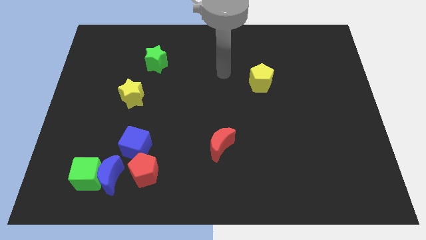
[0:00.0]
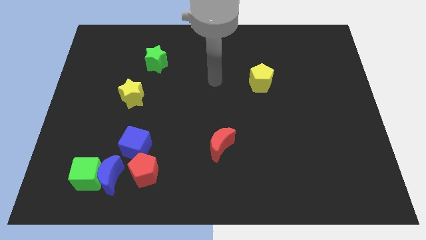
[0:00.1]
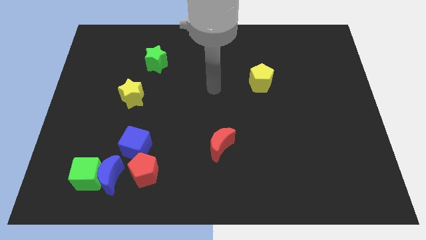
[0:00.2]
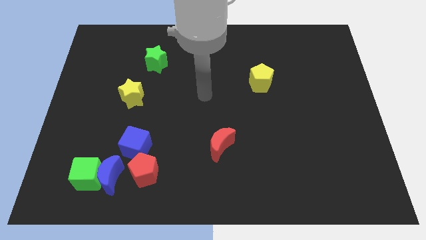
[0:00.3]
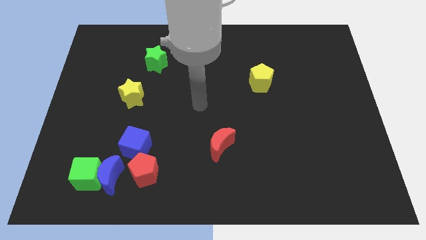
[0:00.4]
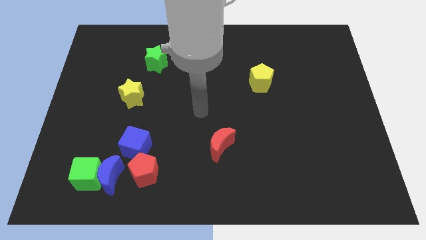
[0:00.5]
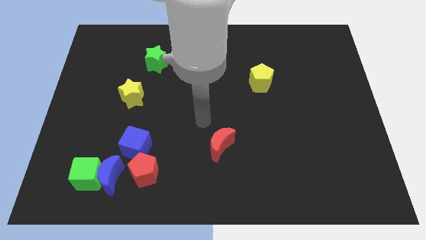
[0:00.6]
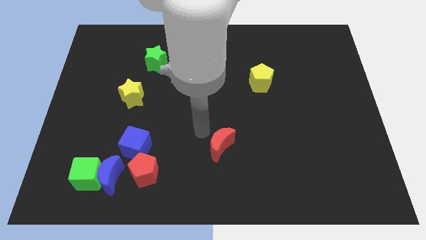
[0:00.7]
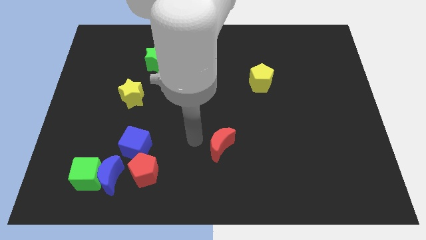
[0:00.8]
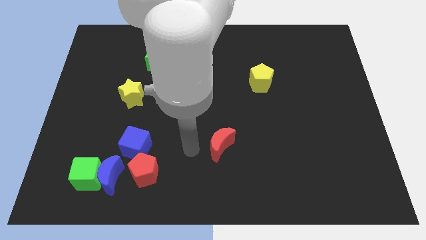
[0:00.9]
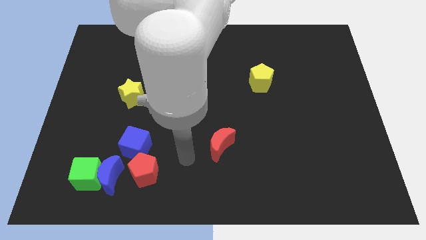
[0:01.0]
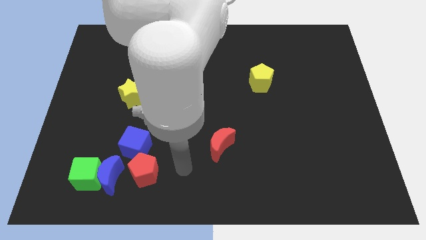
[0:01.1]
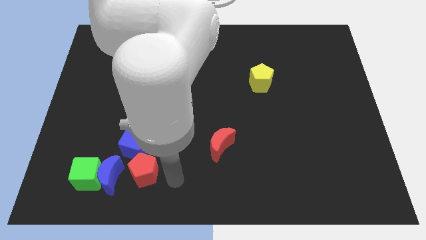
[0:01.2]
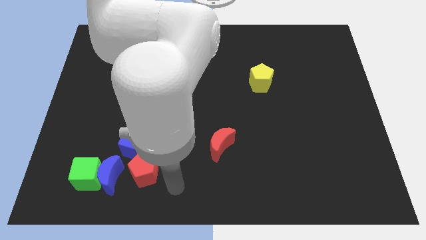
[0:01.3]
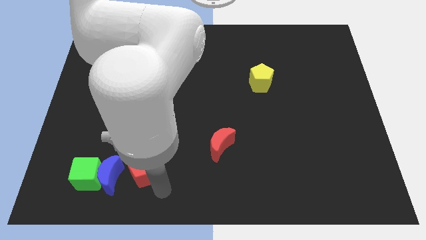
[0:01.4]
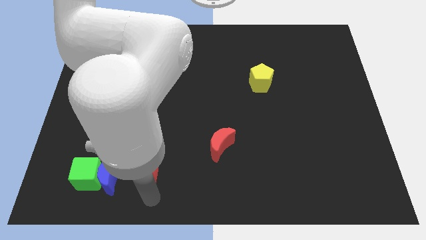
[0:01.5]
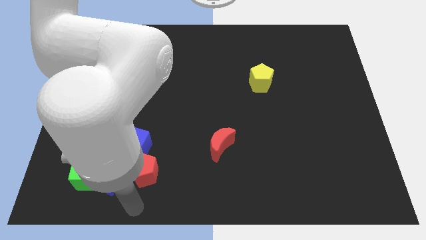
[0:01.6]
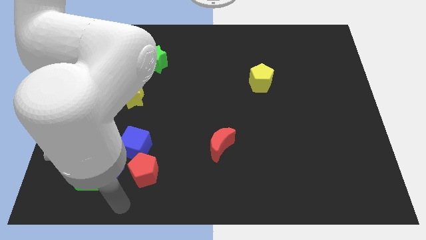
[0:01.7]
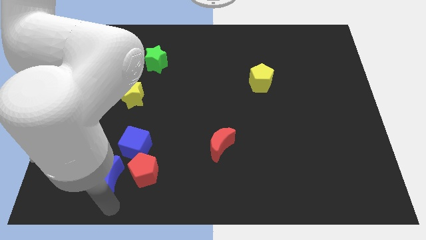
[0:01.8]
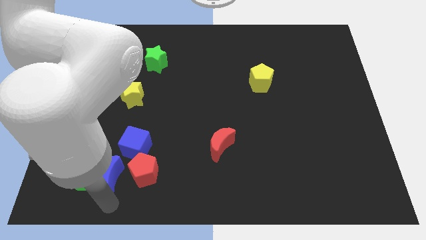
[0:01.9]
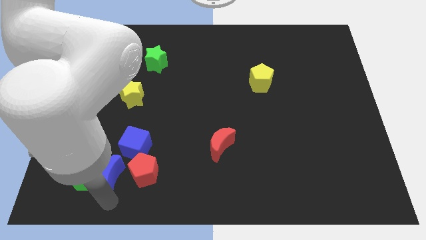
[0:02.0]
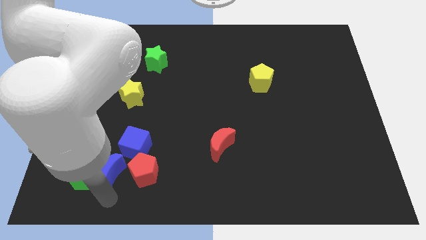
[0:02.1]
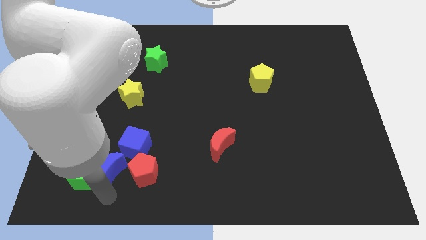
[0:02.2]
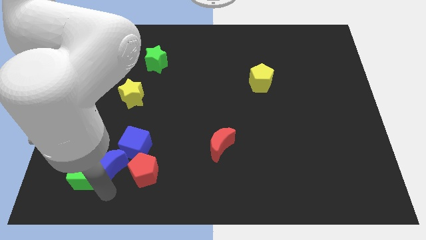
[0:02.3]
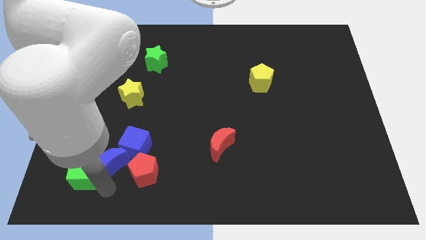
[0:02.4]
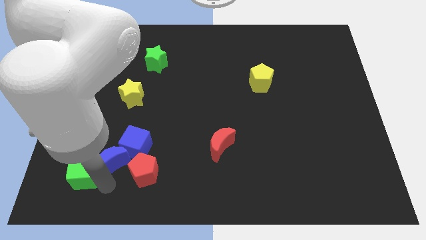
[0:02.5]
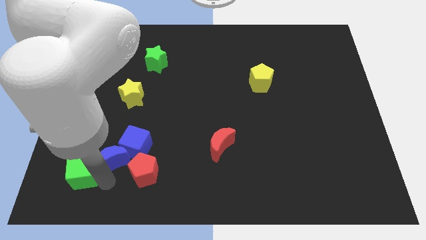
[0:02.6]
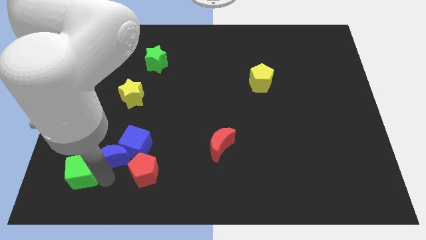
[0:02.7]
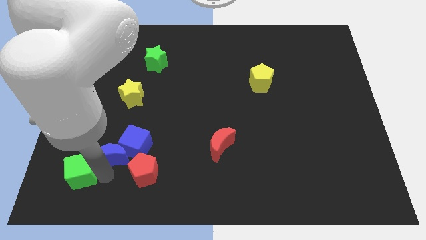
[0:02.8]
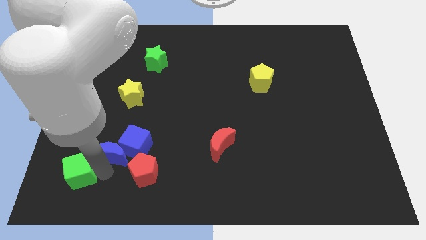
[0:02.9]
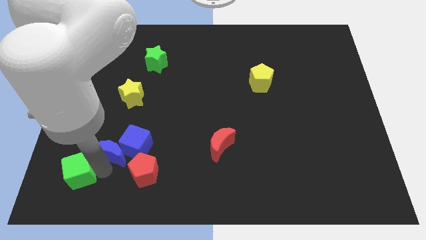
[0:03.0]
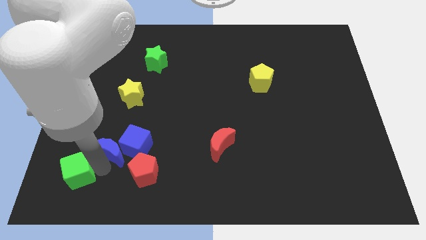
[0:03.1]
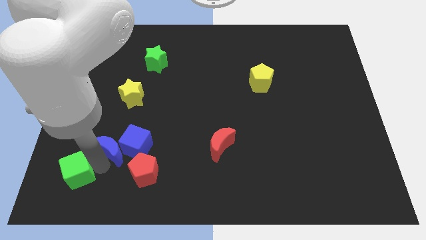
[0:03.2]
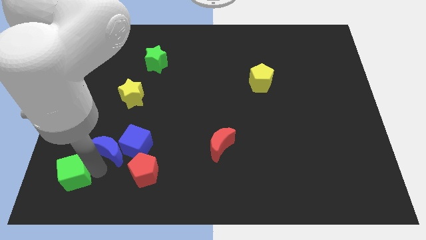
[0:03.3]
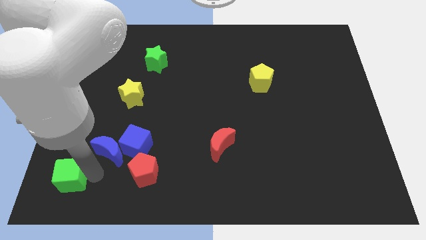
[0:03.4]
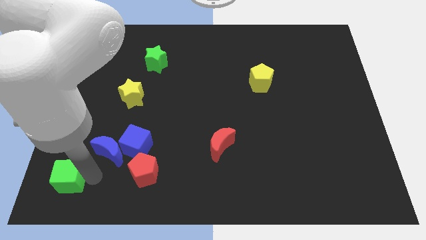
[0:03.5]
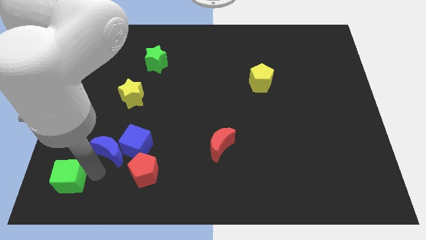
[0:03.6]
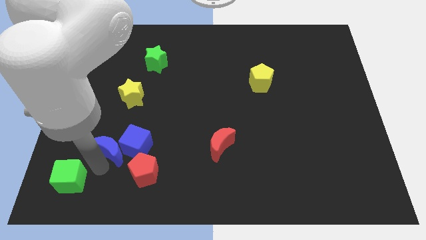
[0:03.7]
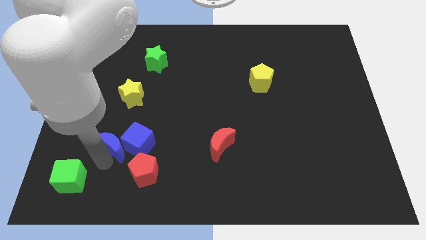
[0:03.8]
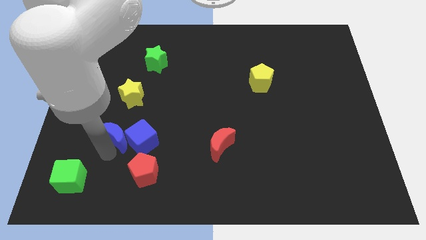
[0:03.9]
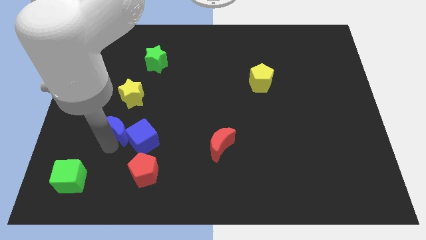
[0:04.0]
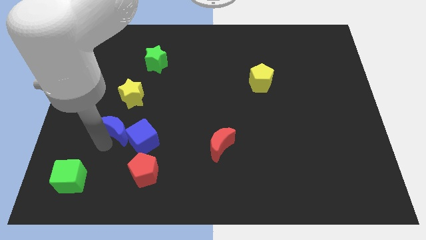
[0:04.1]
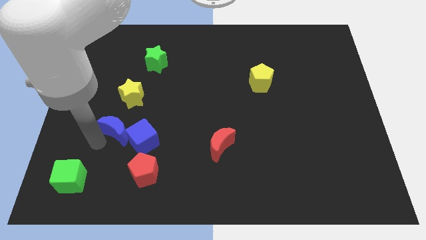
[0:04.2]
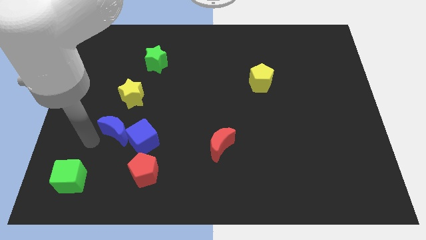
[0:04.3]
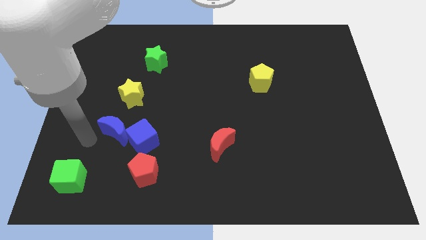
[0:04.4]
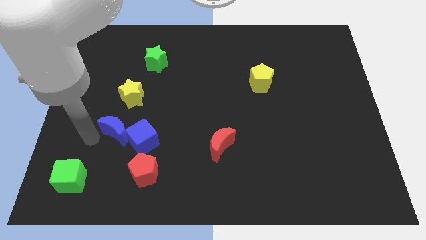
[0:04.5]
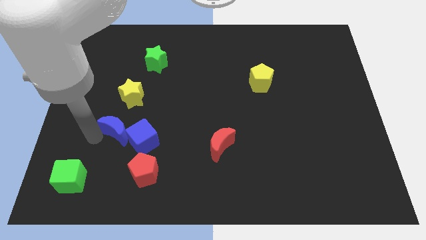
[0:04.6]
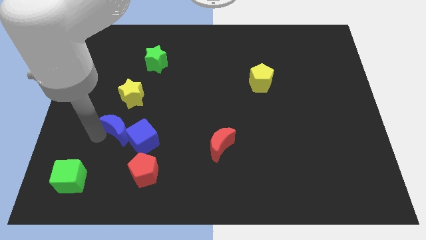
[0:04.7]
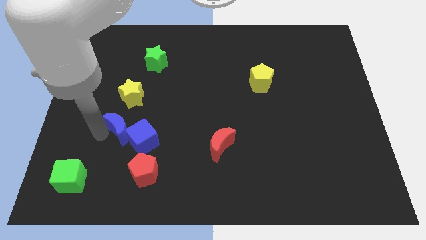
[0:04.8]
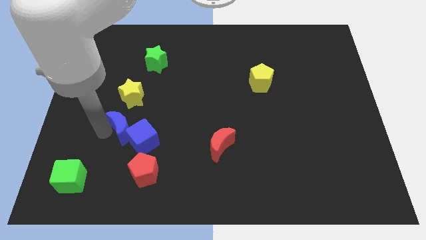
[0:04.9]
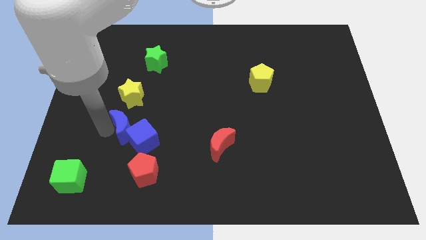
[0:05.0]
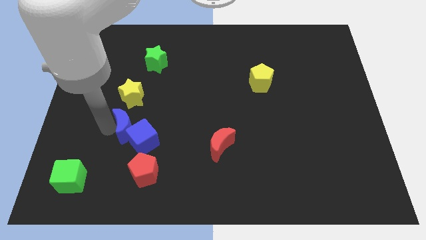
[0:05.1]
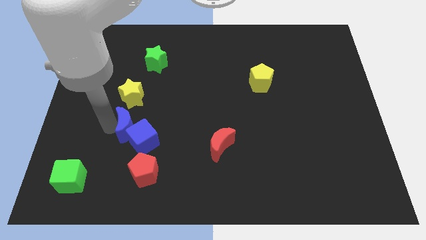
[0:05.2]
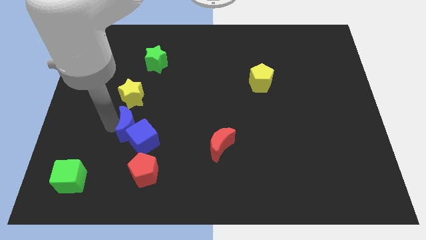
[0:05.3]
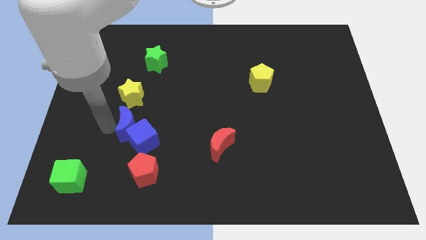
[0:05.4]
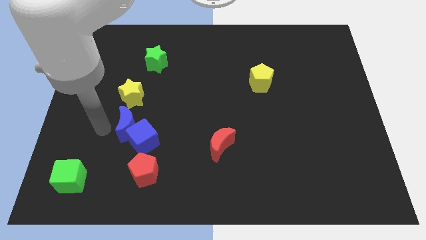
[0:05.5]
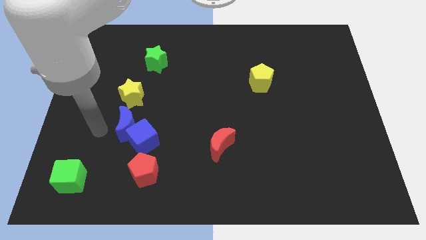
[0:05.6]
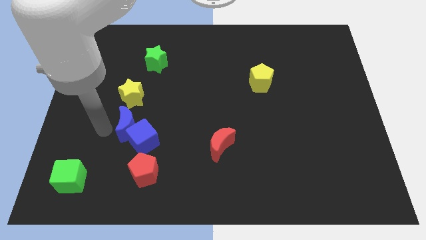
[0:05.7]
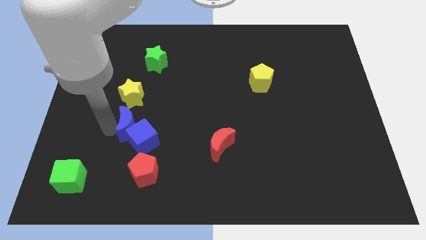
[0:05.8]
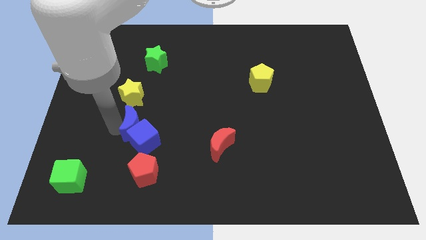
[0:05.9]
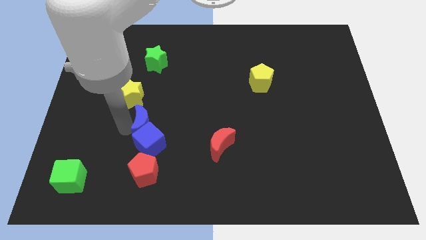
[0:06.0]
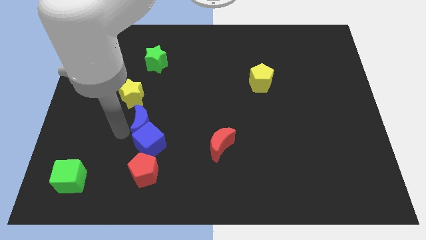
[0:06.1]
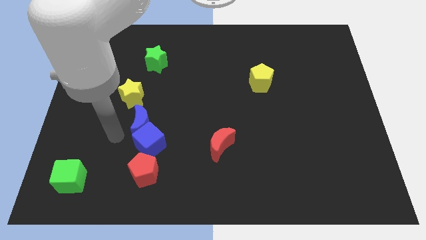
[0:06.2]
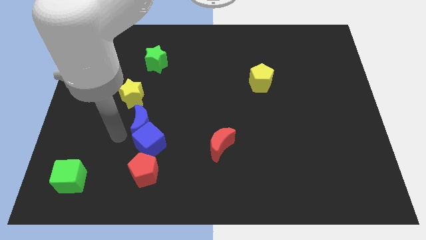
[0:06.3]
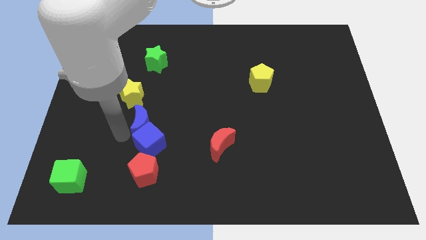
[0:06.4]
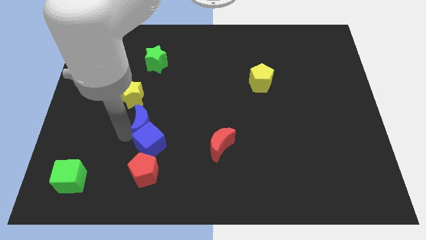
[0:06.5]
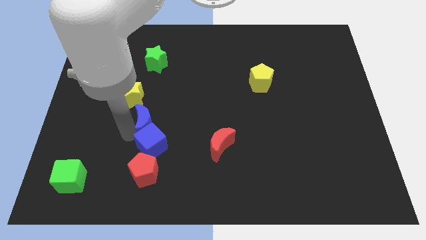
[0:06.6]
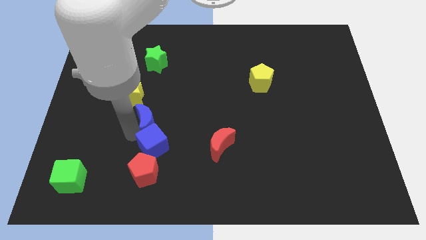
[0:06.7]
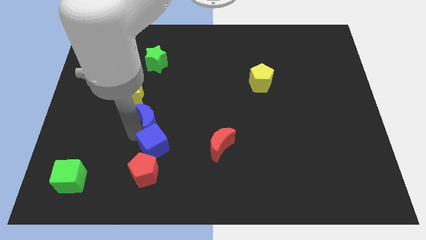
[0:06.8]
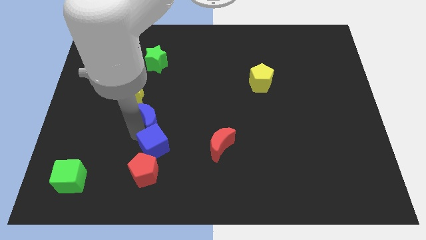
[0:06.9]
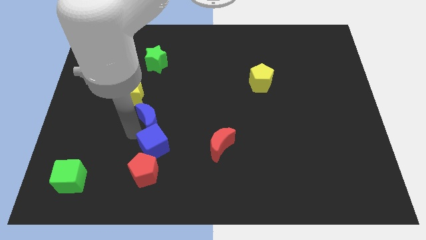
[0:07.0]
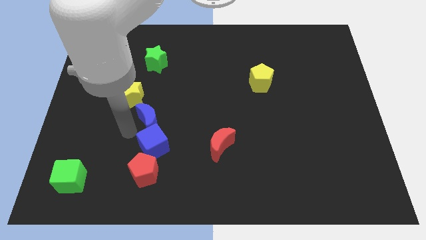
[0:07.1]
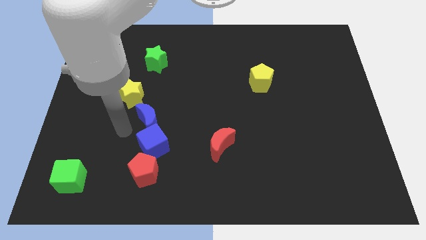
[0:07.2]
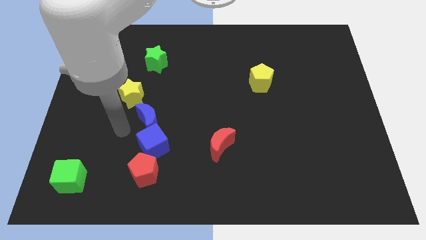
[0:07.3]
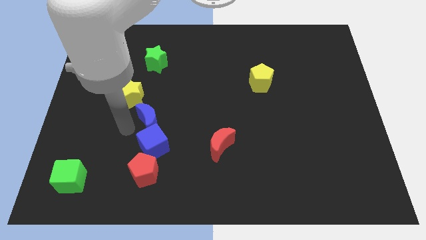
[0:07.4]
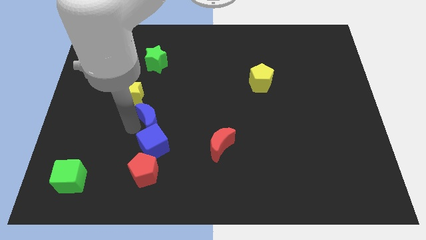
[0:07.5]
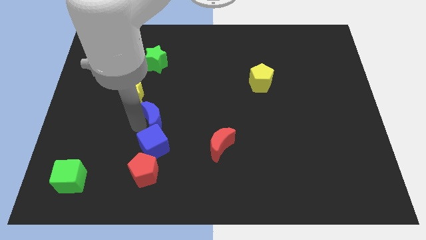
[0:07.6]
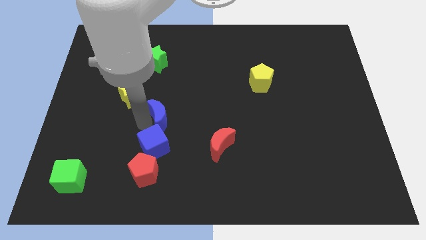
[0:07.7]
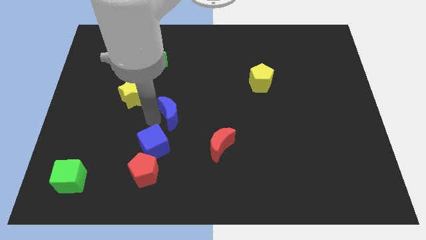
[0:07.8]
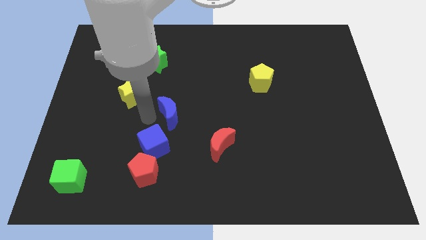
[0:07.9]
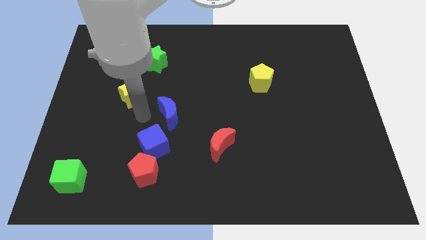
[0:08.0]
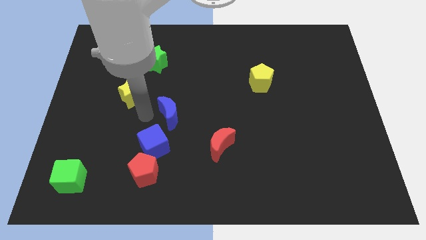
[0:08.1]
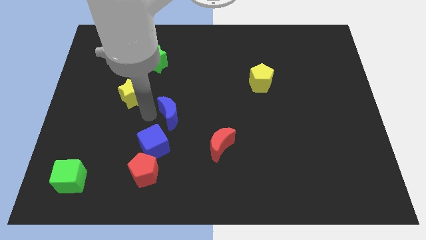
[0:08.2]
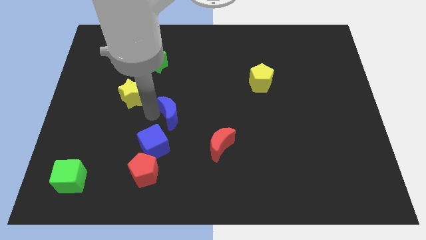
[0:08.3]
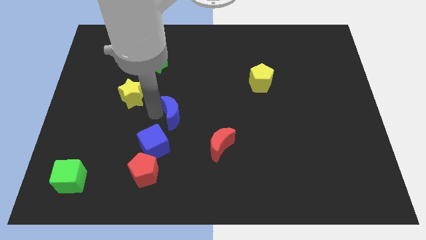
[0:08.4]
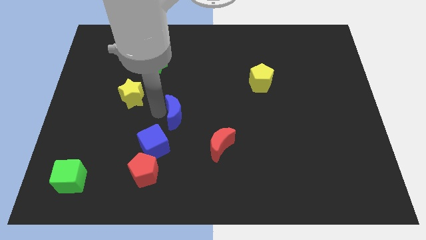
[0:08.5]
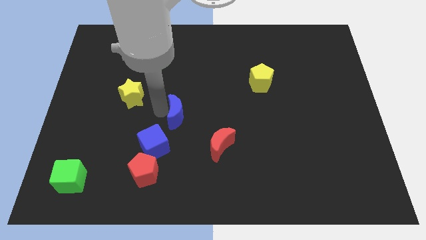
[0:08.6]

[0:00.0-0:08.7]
push the blue moon up and right diagonally
